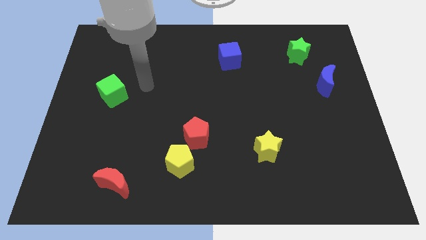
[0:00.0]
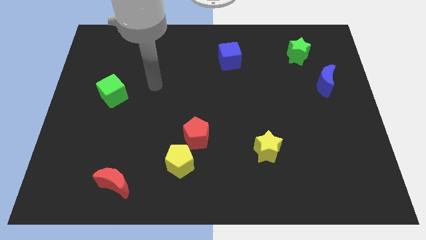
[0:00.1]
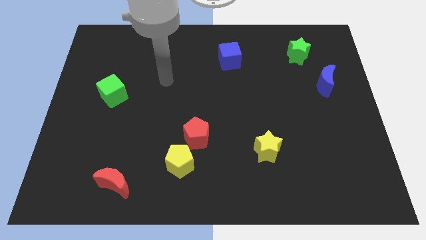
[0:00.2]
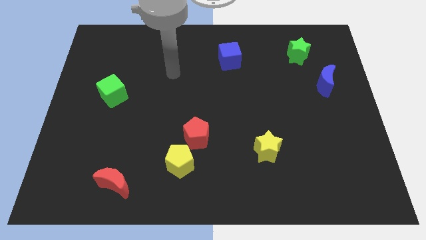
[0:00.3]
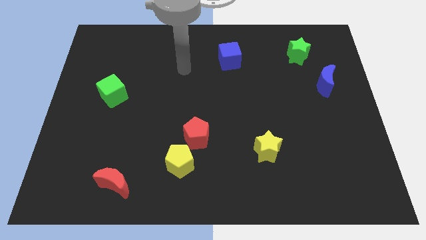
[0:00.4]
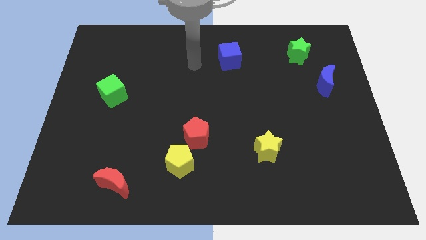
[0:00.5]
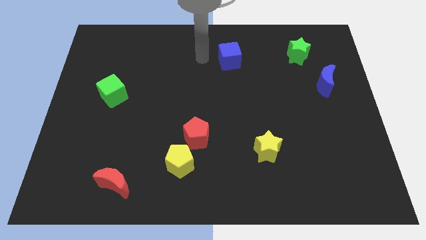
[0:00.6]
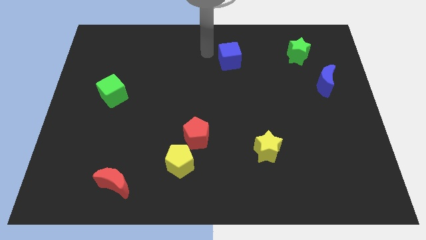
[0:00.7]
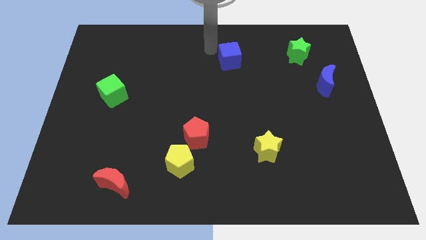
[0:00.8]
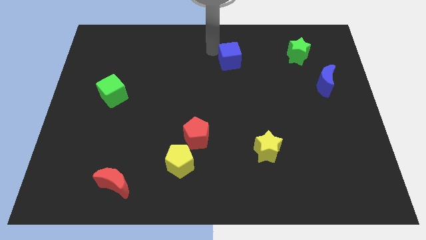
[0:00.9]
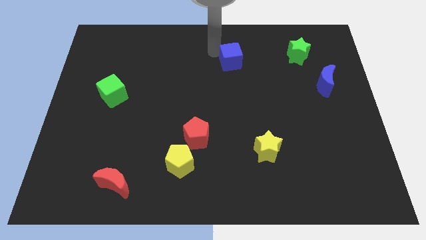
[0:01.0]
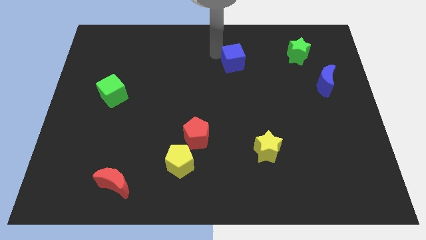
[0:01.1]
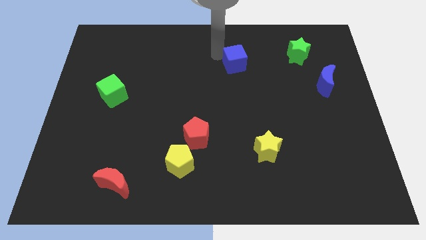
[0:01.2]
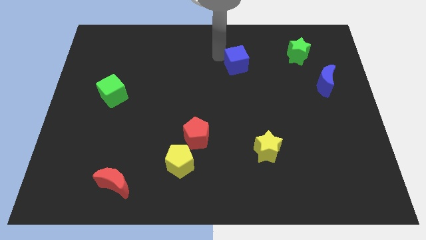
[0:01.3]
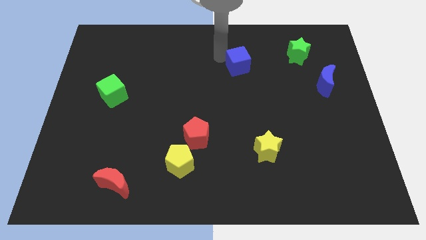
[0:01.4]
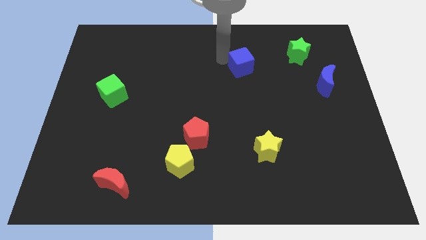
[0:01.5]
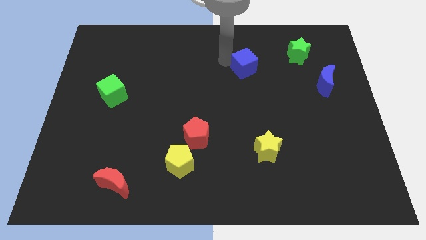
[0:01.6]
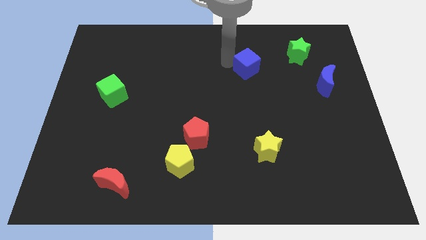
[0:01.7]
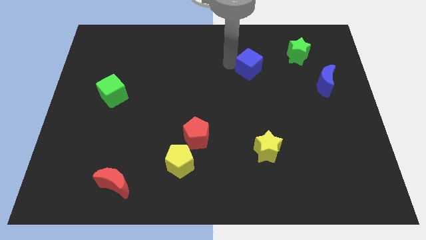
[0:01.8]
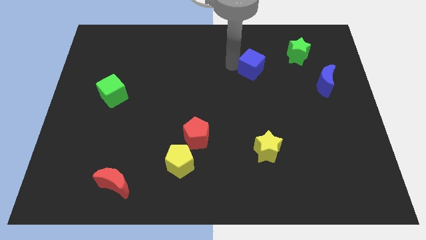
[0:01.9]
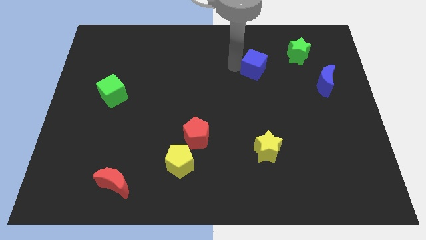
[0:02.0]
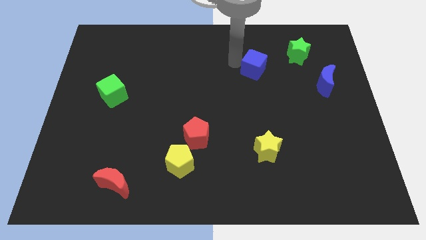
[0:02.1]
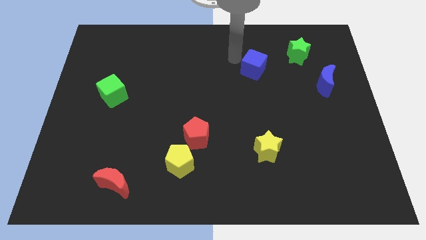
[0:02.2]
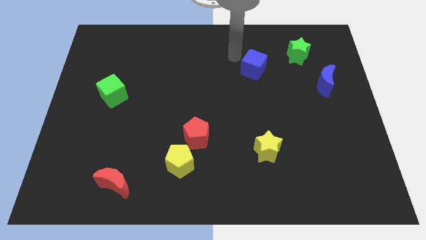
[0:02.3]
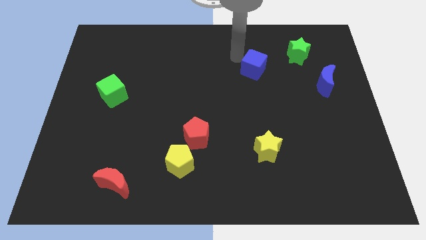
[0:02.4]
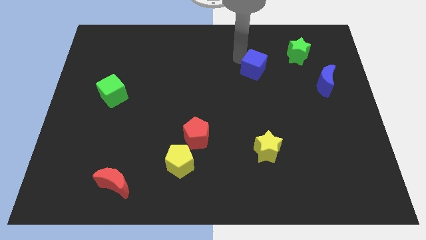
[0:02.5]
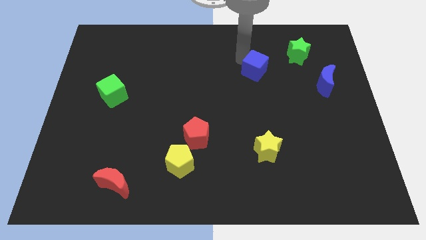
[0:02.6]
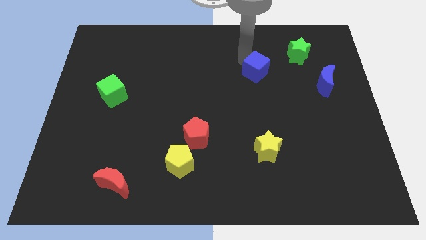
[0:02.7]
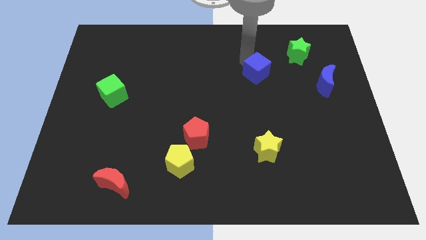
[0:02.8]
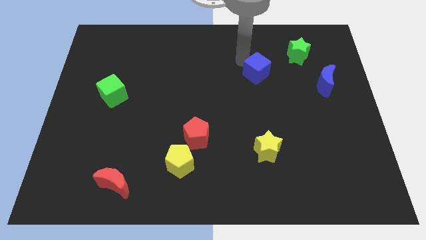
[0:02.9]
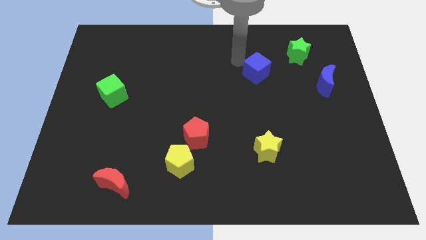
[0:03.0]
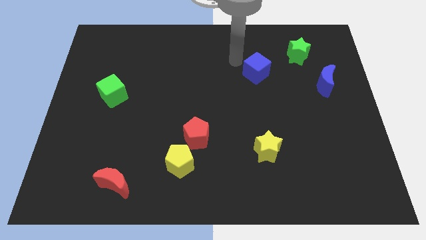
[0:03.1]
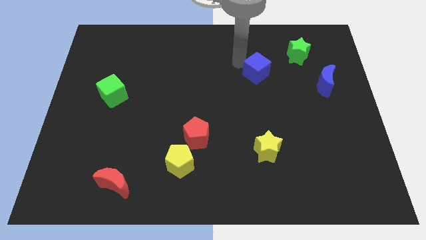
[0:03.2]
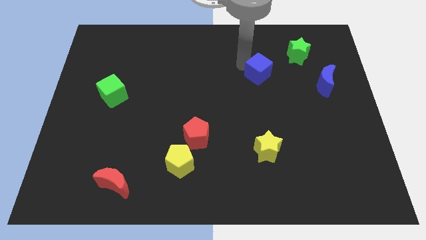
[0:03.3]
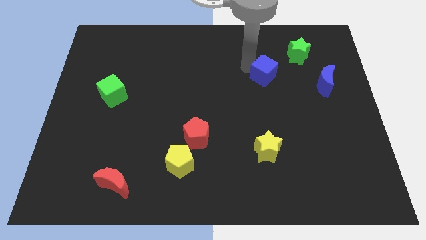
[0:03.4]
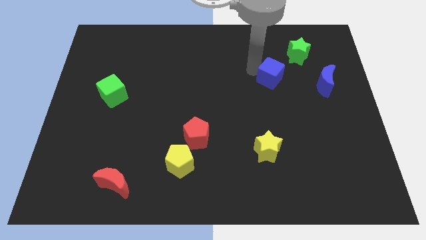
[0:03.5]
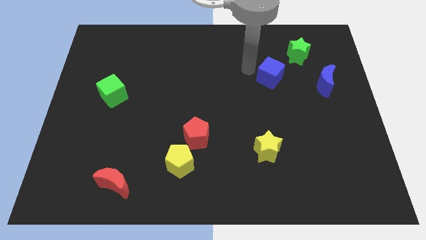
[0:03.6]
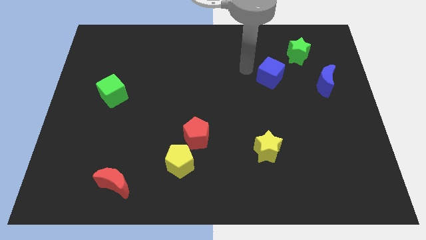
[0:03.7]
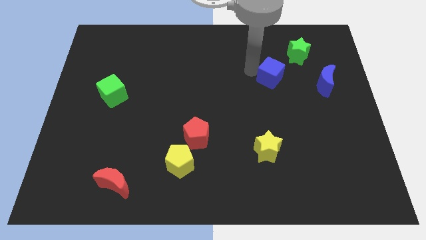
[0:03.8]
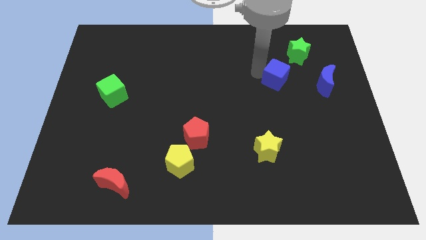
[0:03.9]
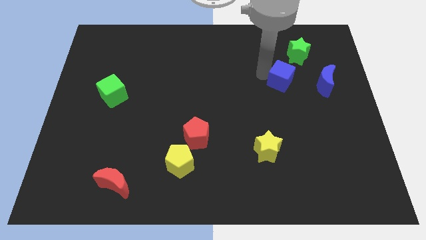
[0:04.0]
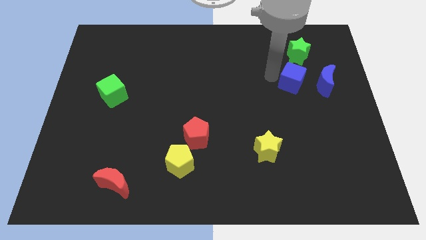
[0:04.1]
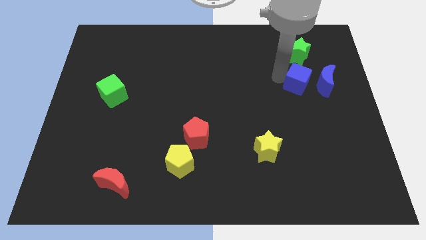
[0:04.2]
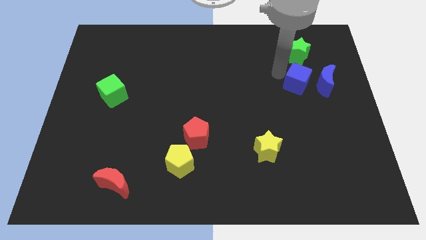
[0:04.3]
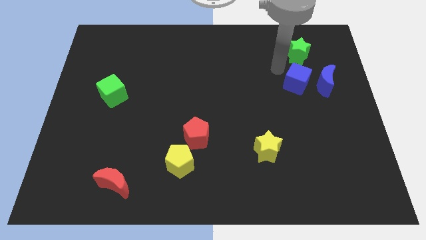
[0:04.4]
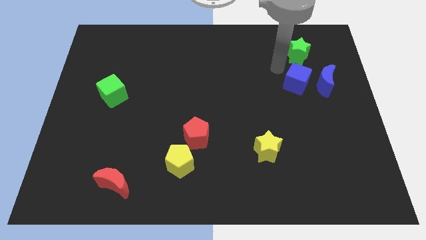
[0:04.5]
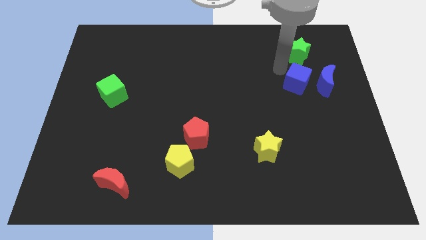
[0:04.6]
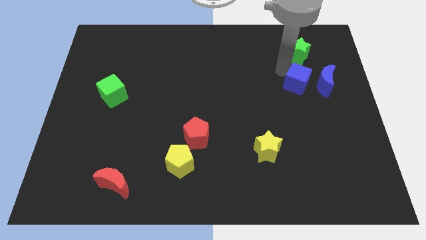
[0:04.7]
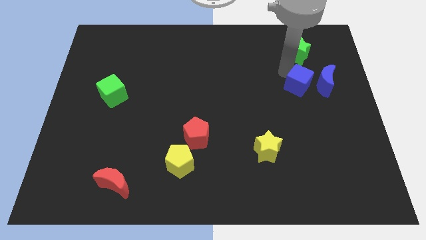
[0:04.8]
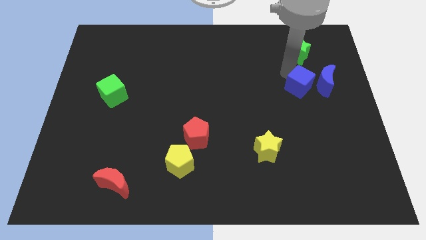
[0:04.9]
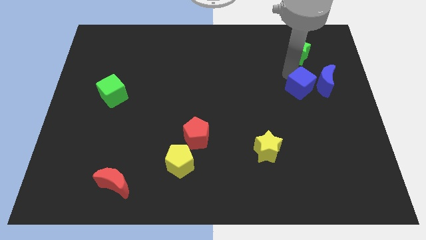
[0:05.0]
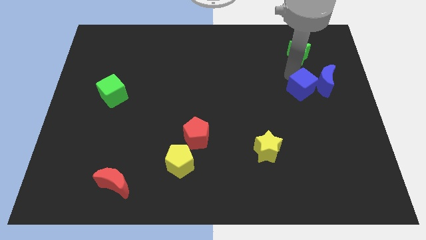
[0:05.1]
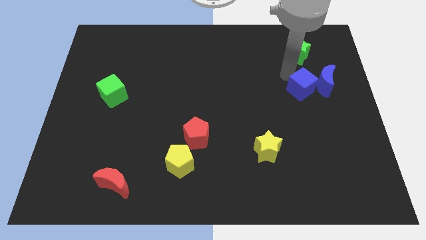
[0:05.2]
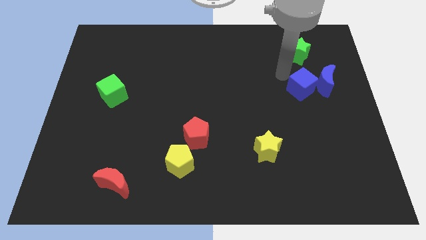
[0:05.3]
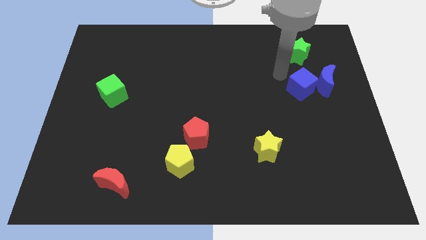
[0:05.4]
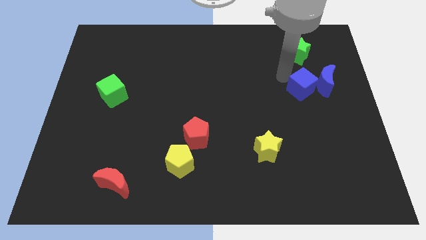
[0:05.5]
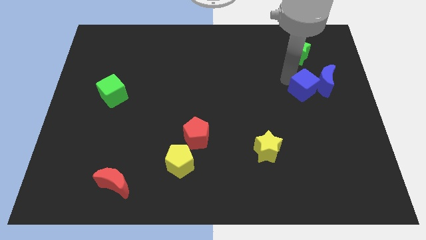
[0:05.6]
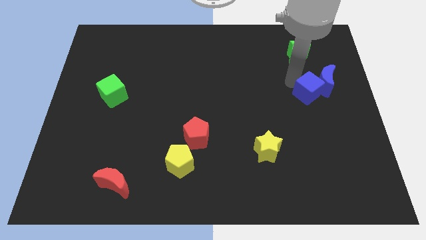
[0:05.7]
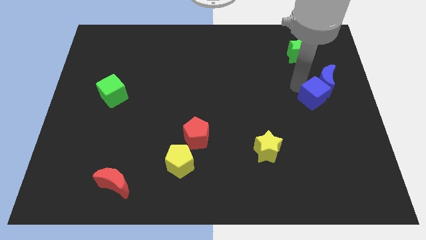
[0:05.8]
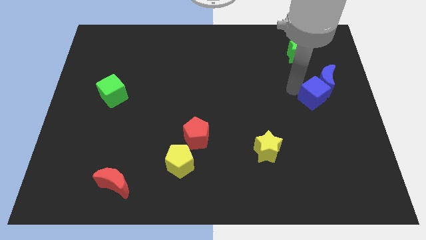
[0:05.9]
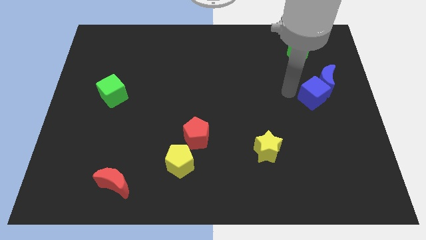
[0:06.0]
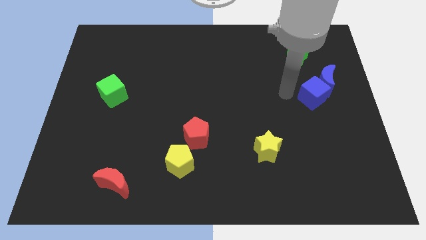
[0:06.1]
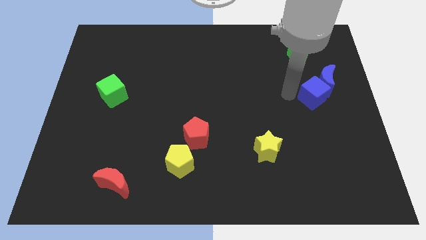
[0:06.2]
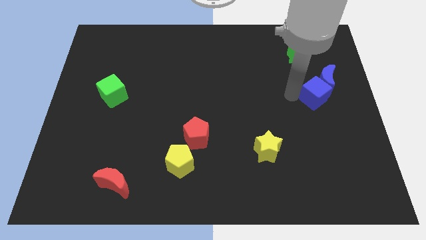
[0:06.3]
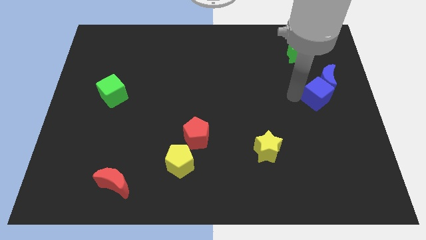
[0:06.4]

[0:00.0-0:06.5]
push the blue cube to the right side
